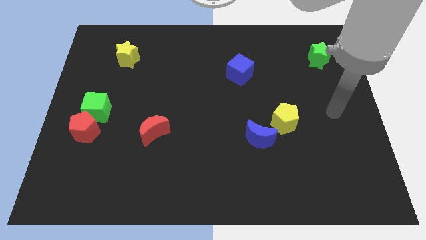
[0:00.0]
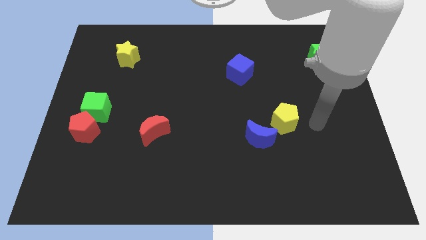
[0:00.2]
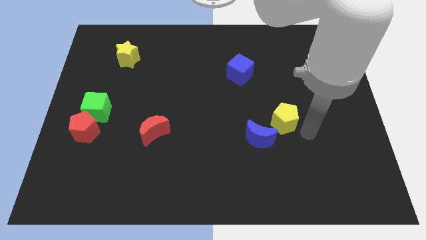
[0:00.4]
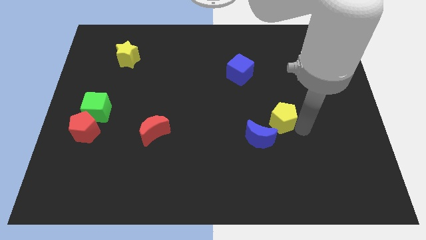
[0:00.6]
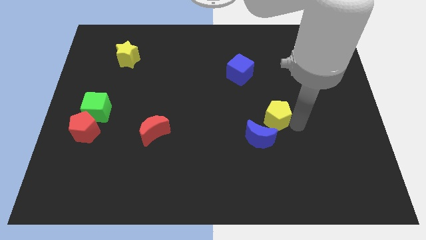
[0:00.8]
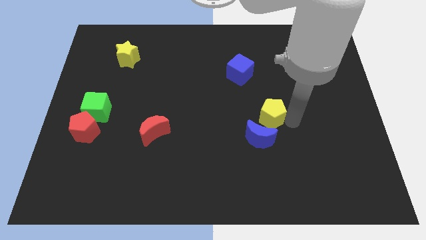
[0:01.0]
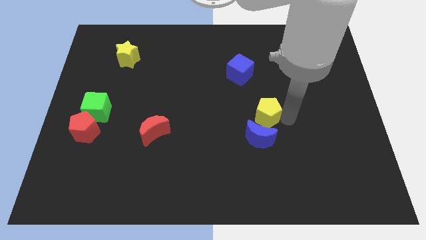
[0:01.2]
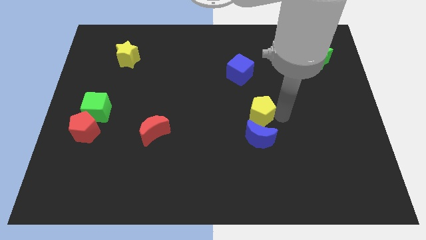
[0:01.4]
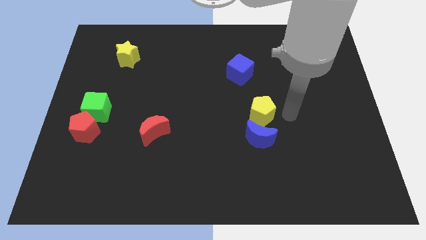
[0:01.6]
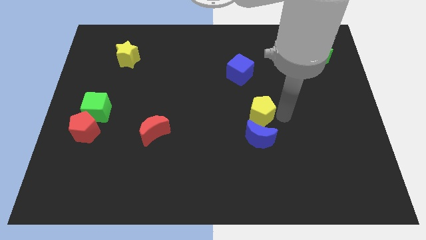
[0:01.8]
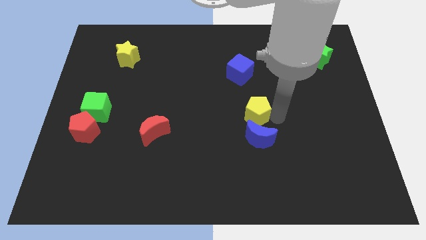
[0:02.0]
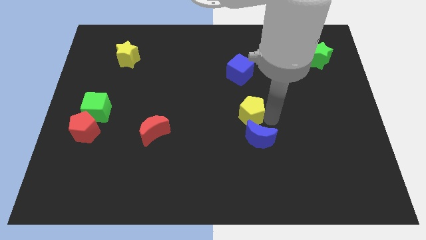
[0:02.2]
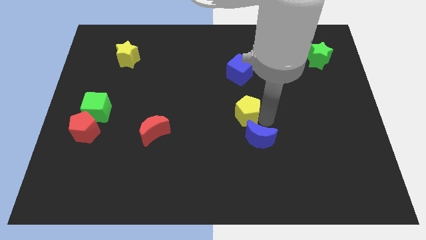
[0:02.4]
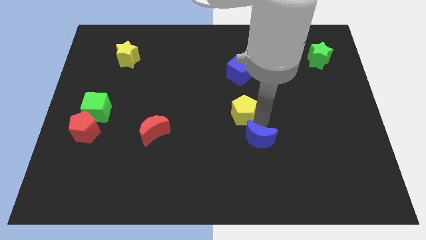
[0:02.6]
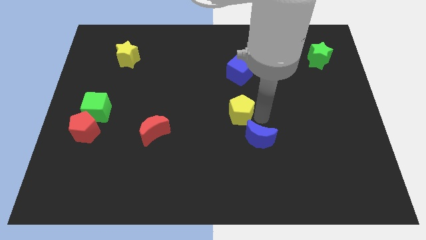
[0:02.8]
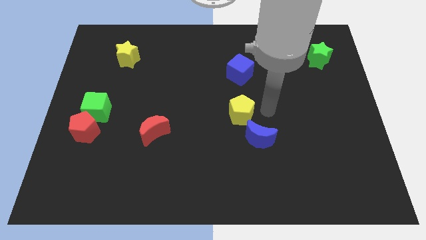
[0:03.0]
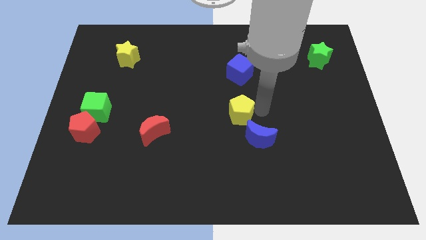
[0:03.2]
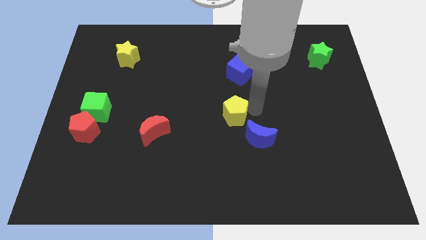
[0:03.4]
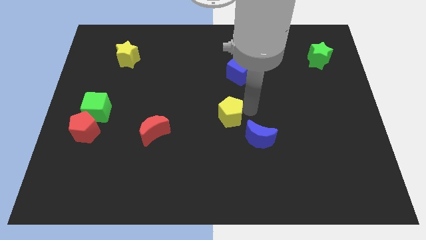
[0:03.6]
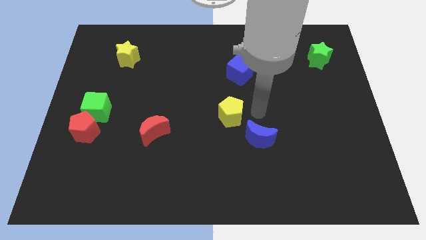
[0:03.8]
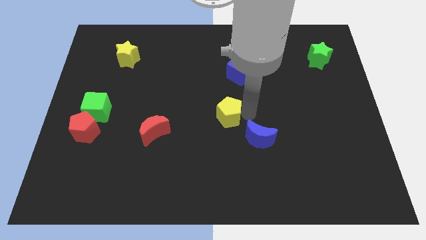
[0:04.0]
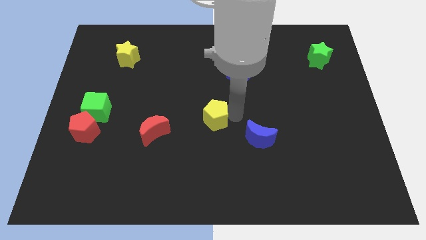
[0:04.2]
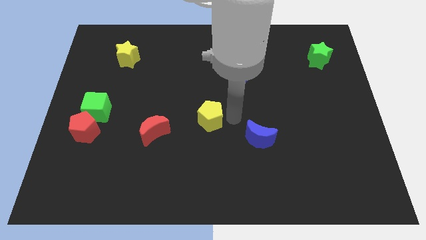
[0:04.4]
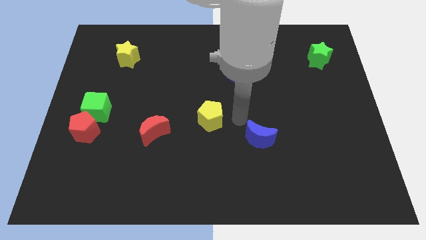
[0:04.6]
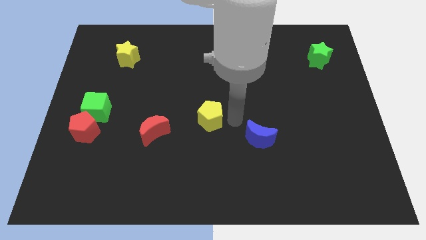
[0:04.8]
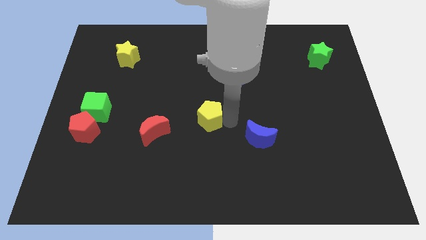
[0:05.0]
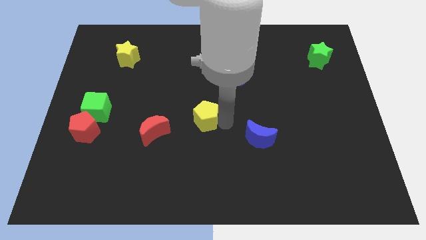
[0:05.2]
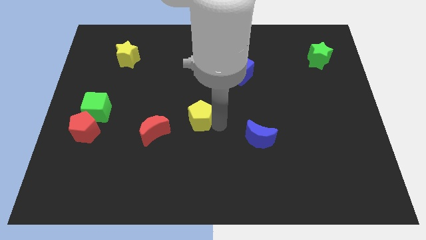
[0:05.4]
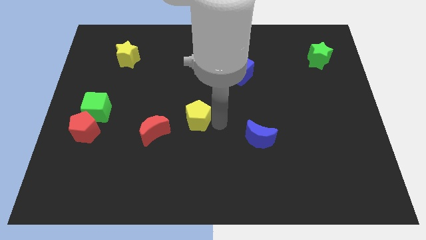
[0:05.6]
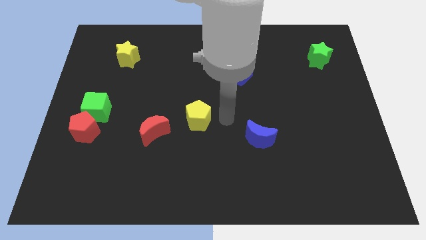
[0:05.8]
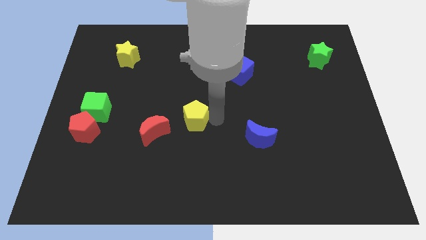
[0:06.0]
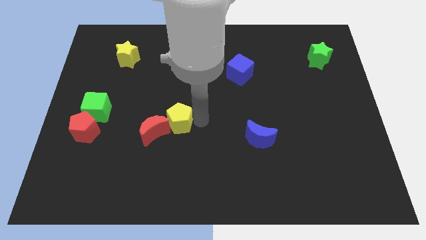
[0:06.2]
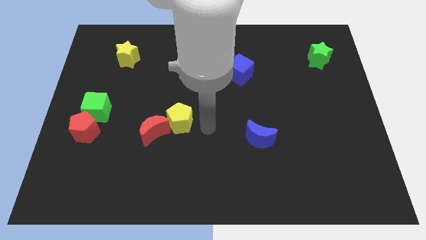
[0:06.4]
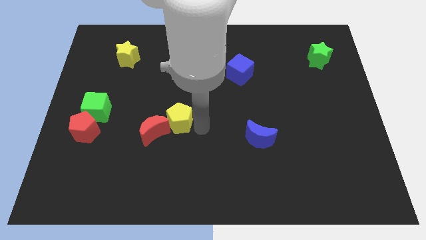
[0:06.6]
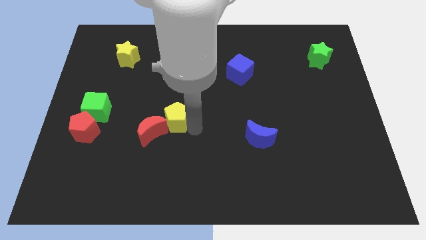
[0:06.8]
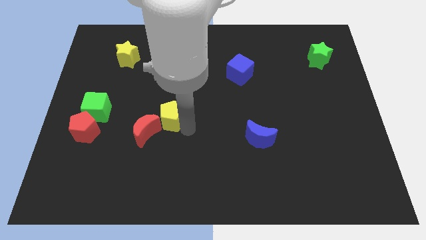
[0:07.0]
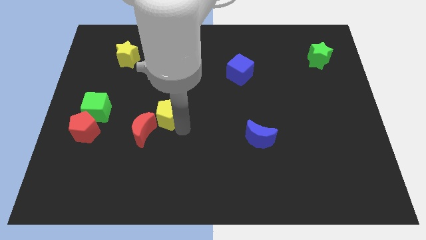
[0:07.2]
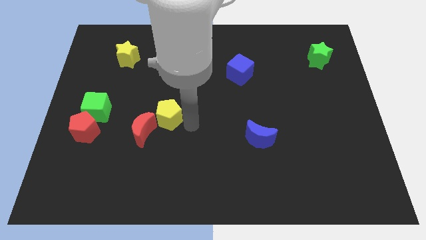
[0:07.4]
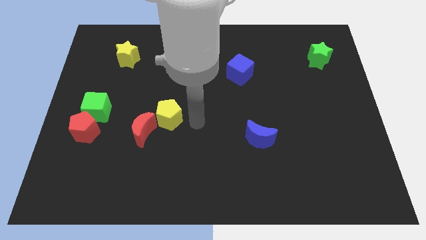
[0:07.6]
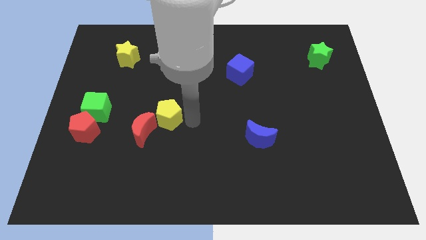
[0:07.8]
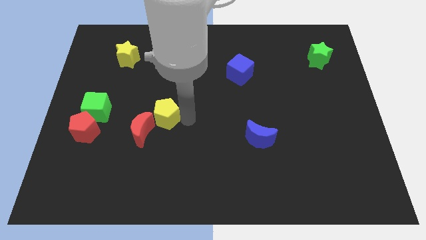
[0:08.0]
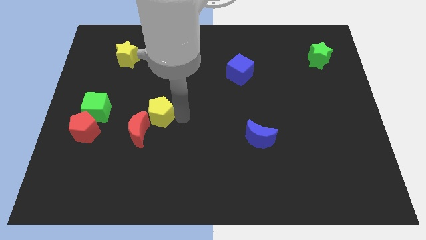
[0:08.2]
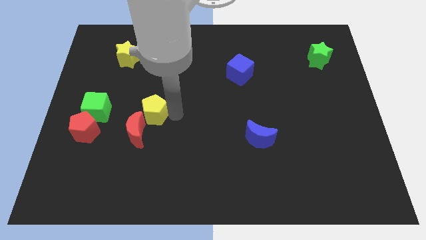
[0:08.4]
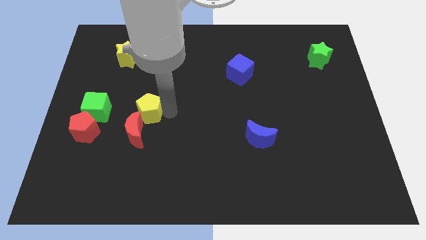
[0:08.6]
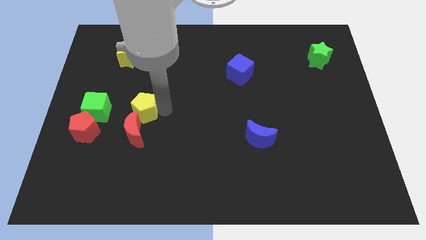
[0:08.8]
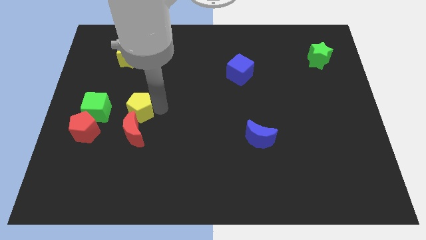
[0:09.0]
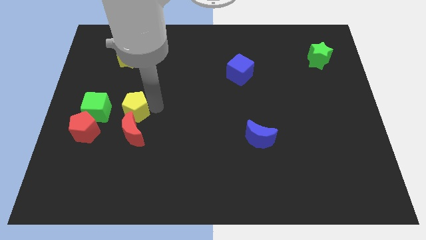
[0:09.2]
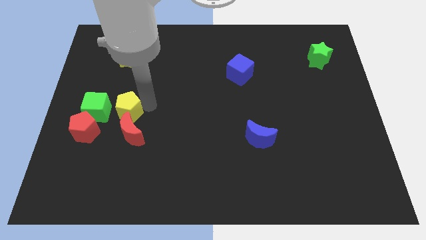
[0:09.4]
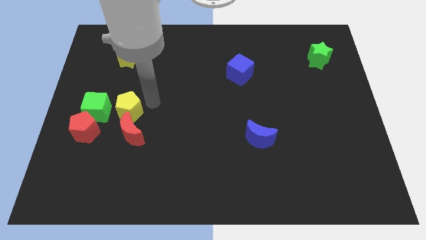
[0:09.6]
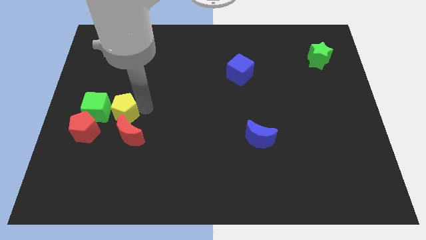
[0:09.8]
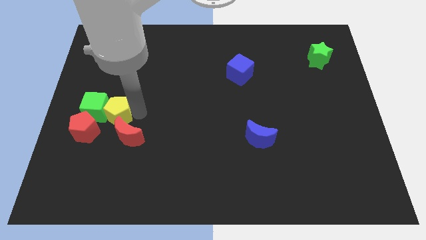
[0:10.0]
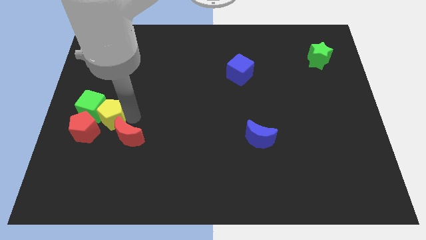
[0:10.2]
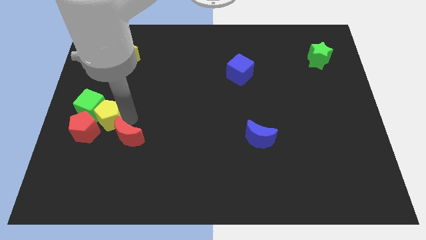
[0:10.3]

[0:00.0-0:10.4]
push the yellow pentagon to the red pentagon

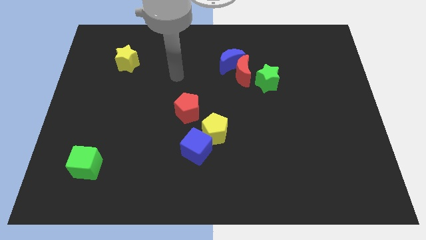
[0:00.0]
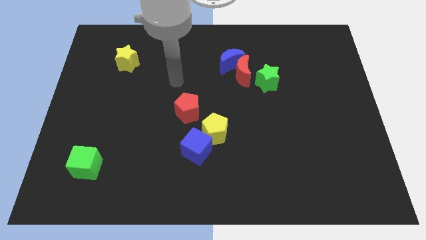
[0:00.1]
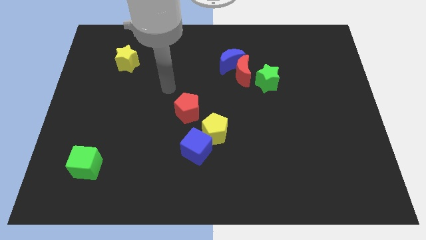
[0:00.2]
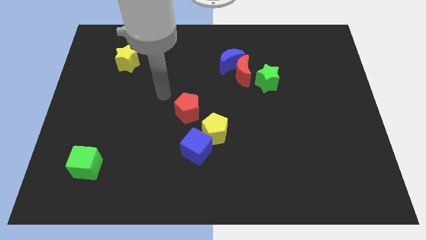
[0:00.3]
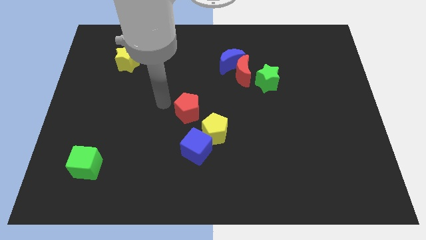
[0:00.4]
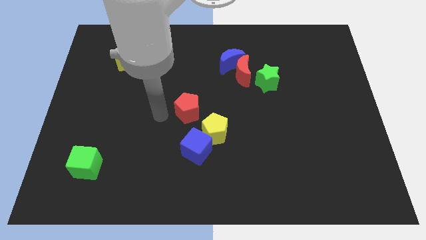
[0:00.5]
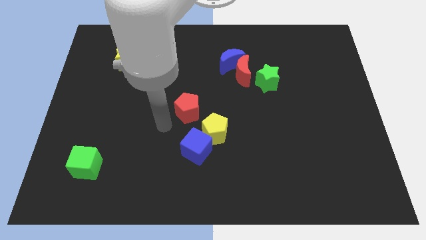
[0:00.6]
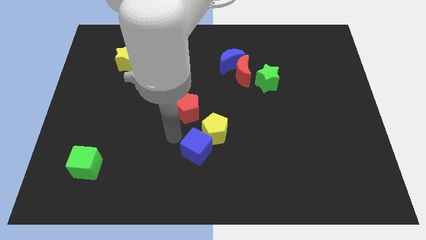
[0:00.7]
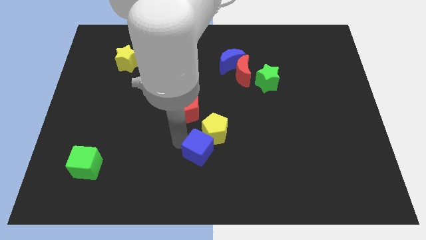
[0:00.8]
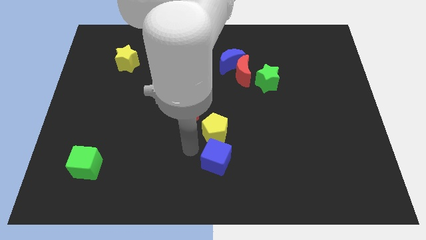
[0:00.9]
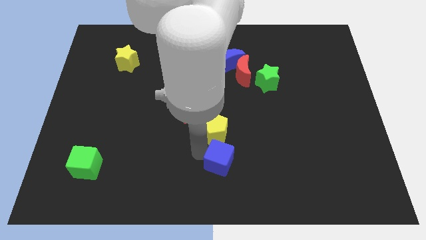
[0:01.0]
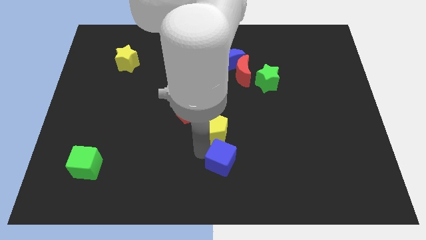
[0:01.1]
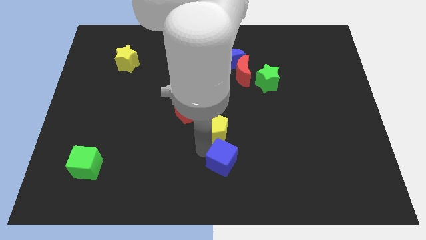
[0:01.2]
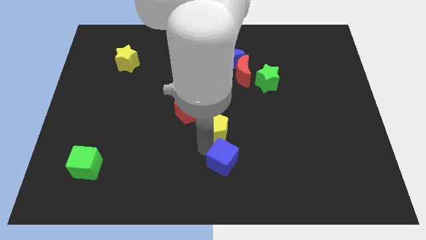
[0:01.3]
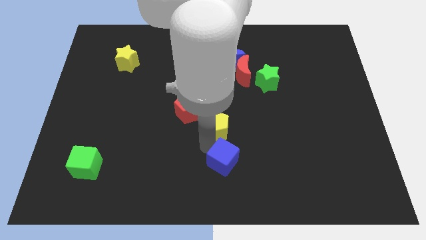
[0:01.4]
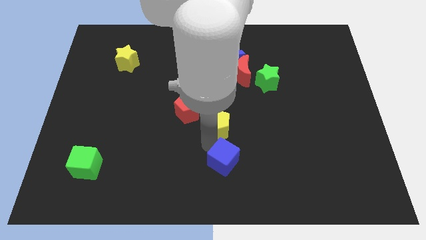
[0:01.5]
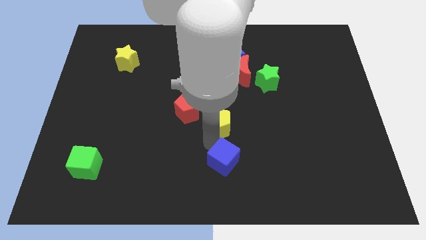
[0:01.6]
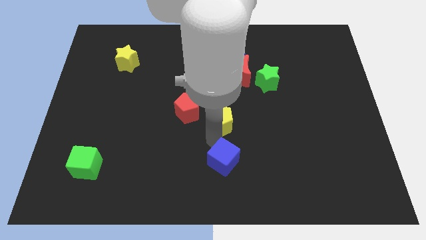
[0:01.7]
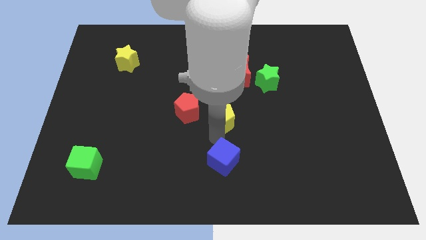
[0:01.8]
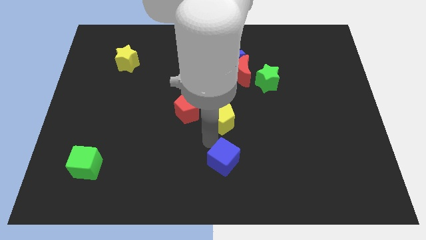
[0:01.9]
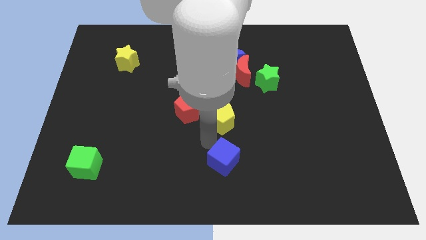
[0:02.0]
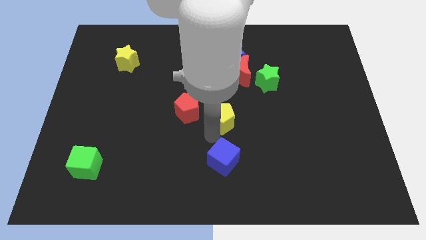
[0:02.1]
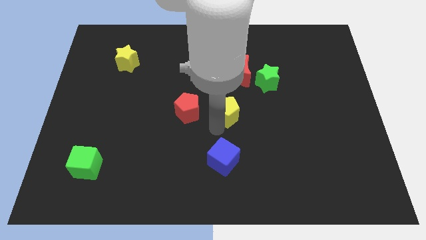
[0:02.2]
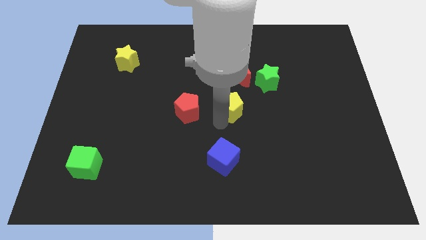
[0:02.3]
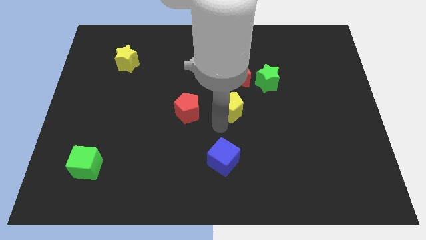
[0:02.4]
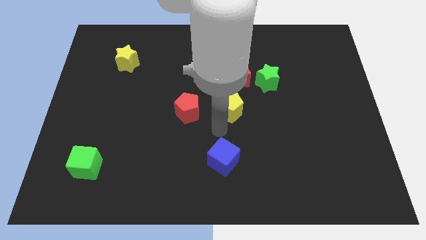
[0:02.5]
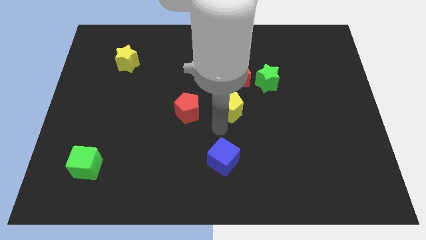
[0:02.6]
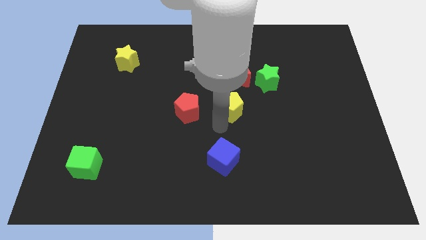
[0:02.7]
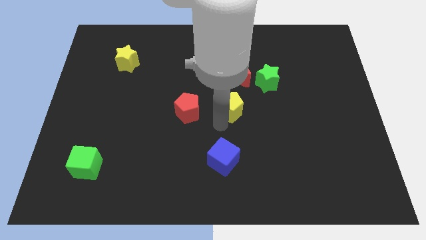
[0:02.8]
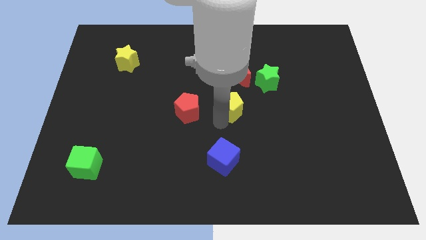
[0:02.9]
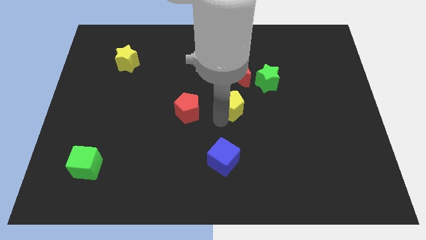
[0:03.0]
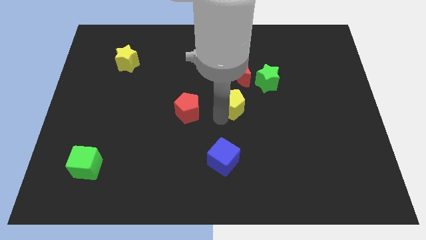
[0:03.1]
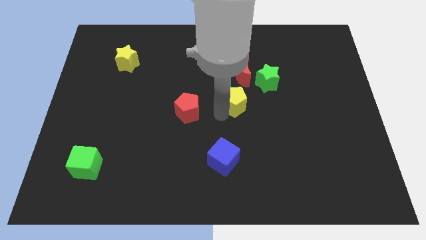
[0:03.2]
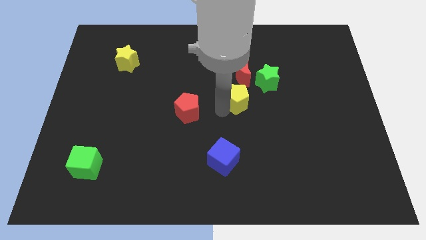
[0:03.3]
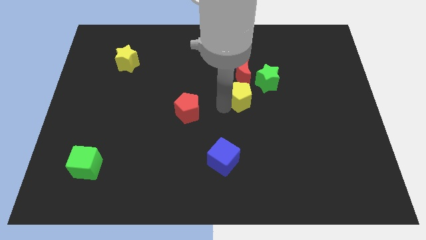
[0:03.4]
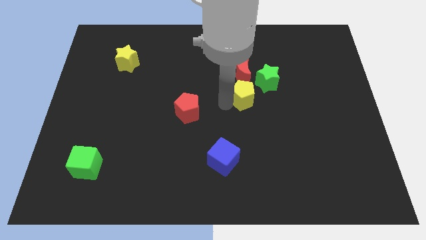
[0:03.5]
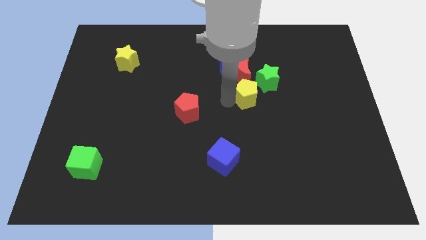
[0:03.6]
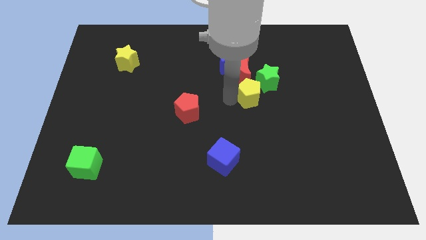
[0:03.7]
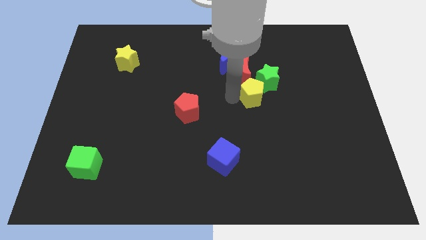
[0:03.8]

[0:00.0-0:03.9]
push the yellow pentagon next to the green star
